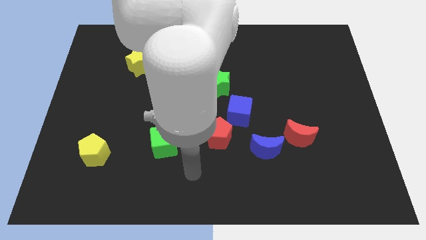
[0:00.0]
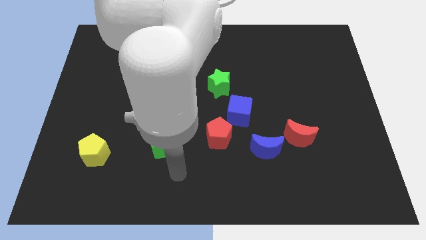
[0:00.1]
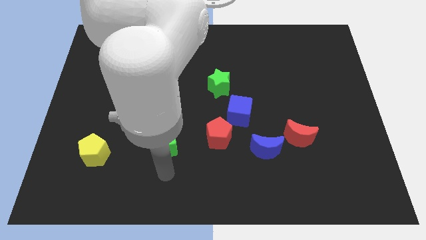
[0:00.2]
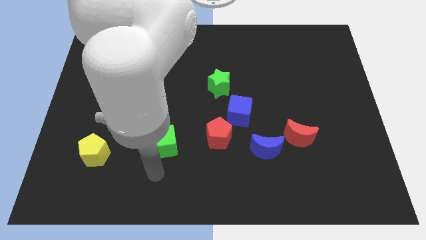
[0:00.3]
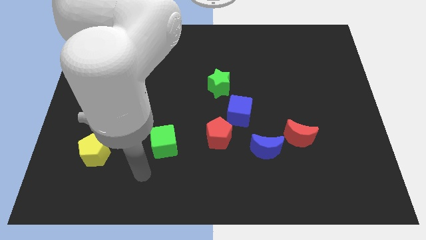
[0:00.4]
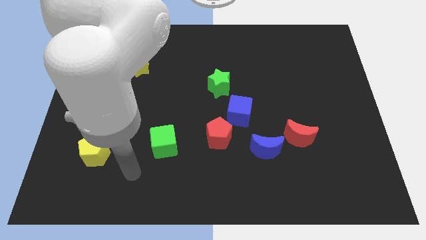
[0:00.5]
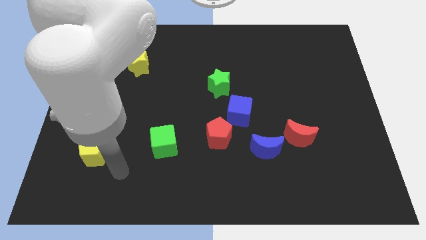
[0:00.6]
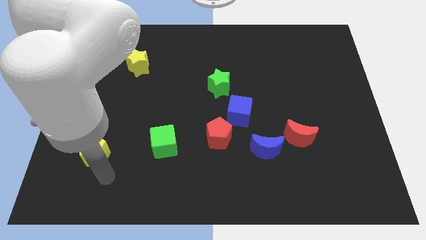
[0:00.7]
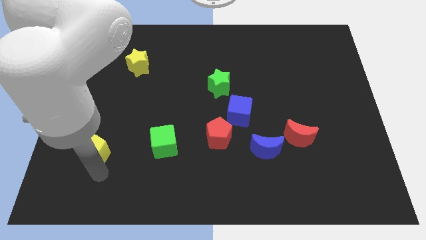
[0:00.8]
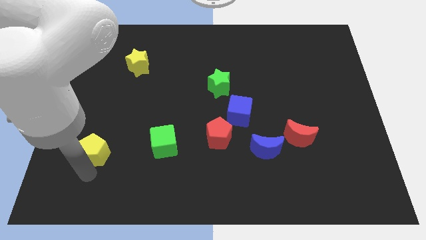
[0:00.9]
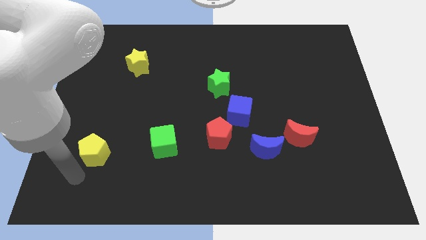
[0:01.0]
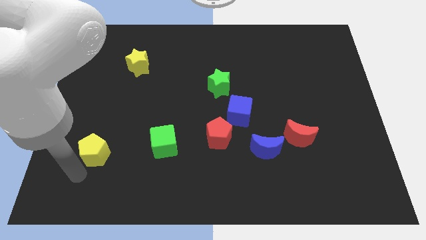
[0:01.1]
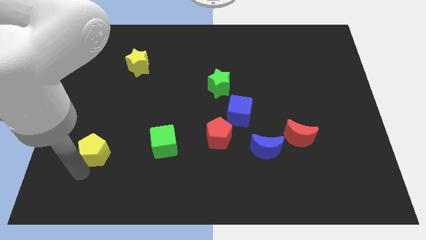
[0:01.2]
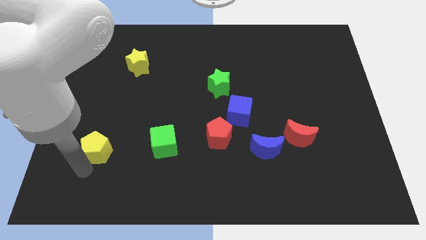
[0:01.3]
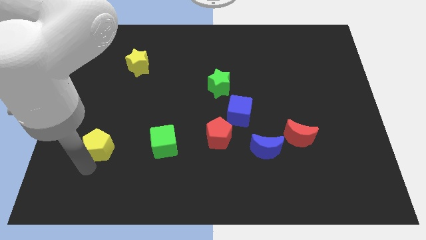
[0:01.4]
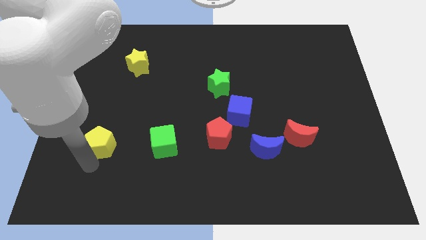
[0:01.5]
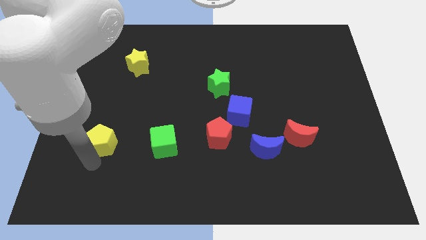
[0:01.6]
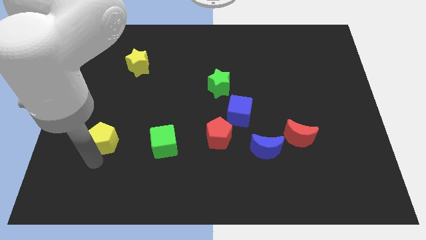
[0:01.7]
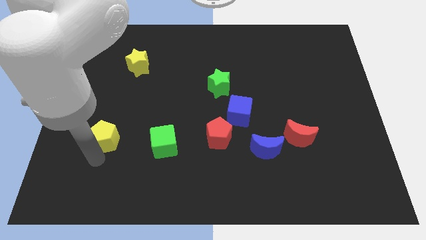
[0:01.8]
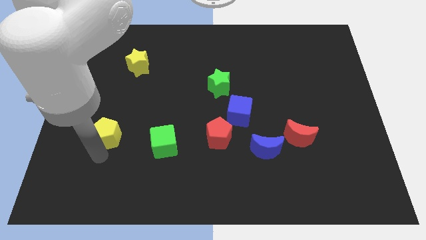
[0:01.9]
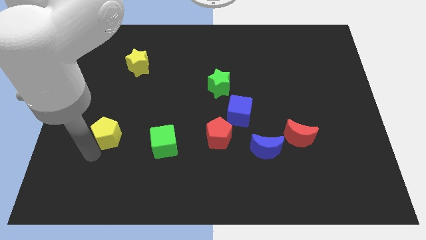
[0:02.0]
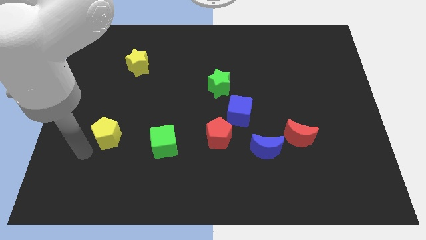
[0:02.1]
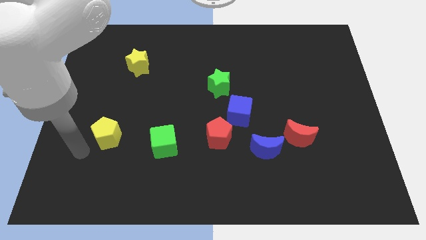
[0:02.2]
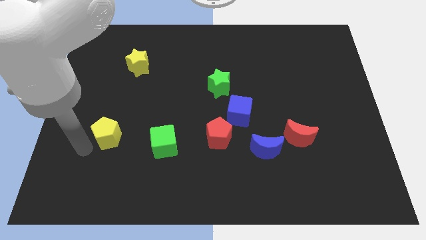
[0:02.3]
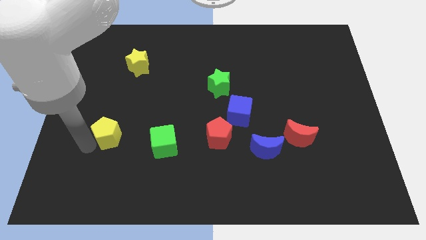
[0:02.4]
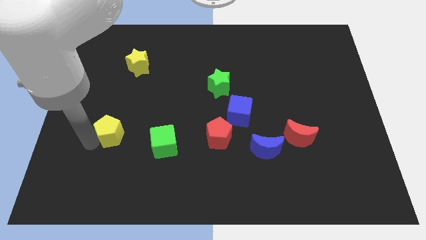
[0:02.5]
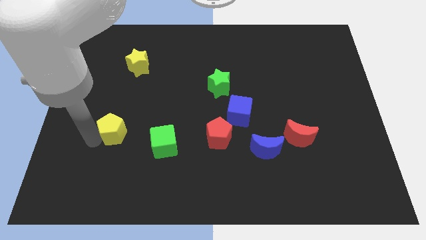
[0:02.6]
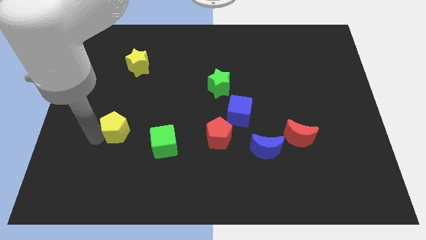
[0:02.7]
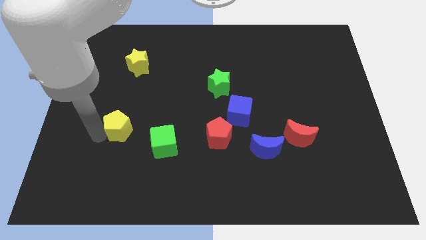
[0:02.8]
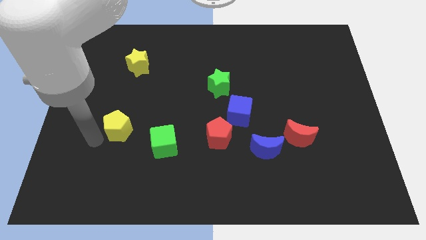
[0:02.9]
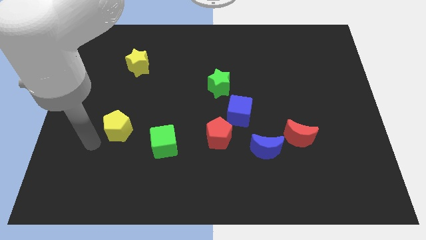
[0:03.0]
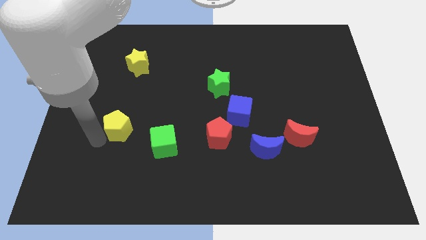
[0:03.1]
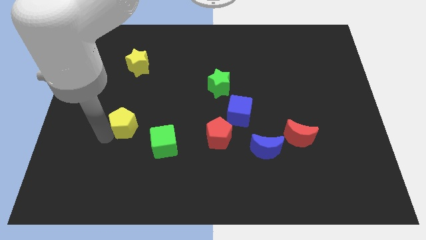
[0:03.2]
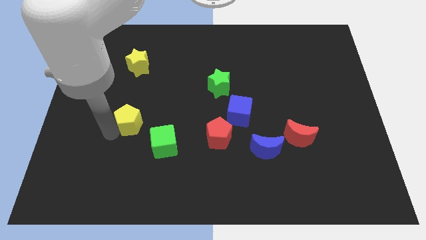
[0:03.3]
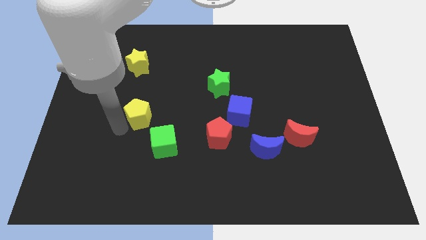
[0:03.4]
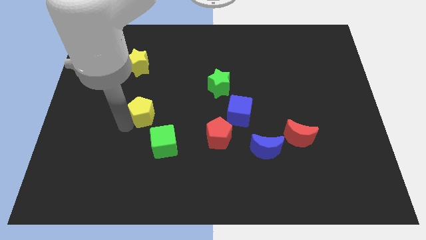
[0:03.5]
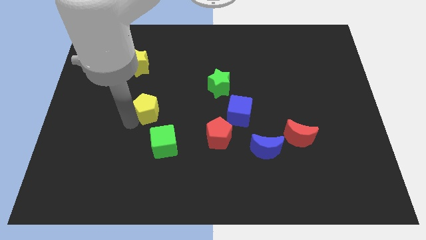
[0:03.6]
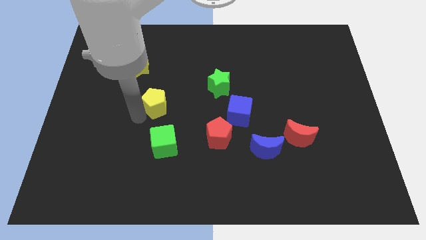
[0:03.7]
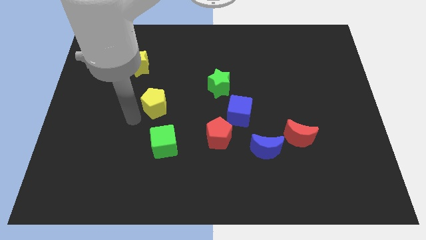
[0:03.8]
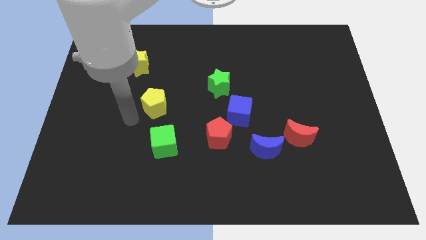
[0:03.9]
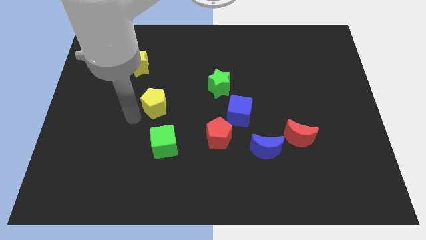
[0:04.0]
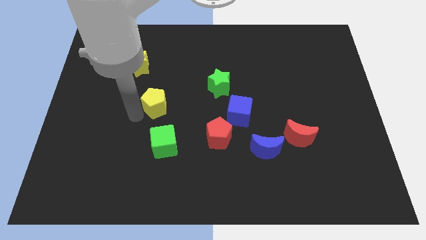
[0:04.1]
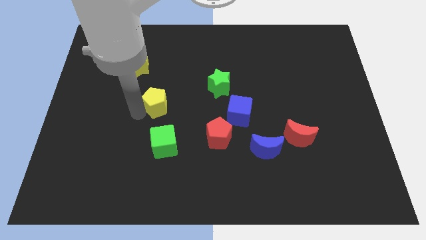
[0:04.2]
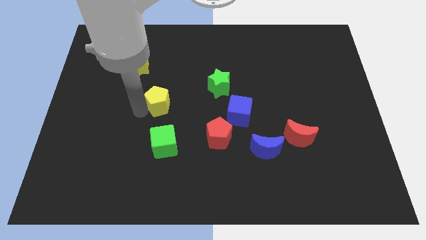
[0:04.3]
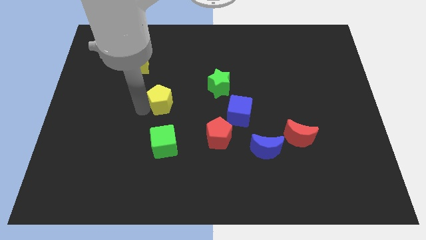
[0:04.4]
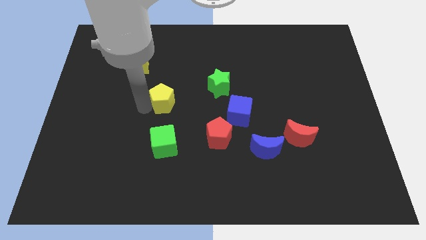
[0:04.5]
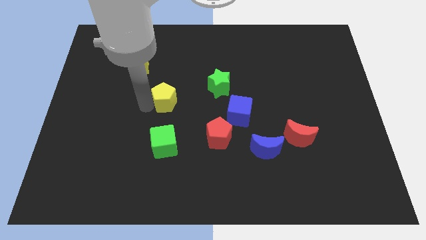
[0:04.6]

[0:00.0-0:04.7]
slide the yellow pentagon up and then right

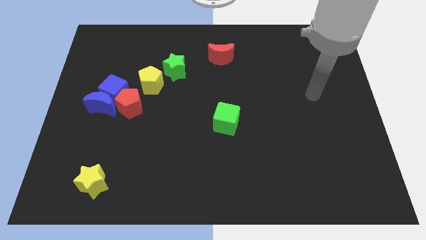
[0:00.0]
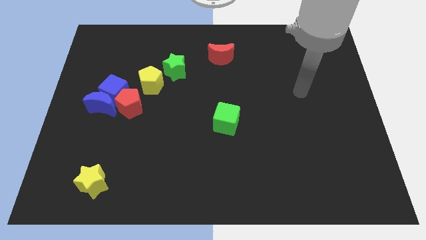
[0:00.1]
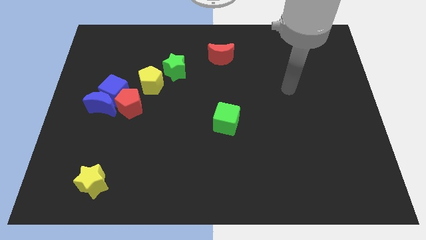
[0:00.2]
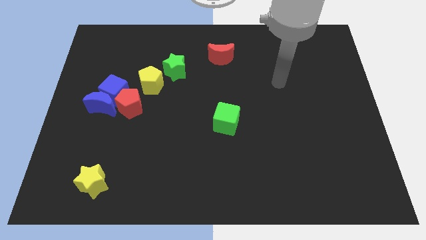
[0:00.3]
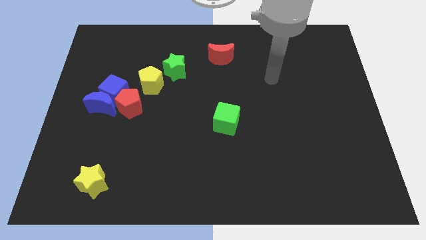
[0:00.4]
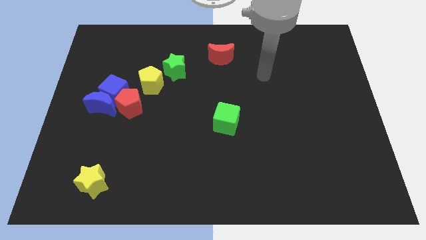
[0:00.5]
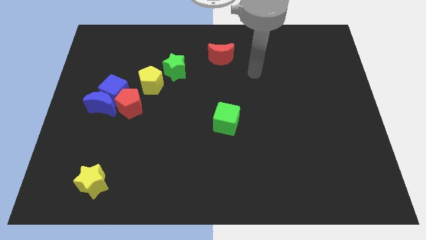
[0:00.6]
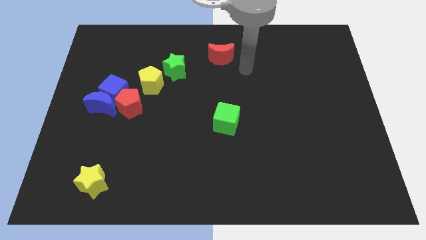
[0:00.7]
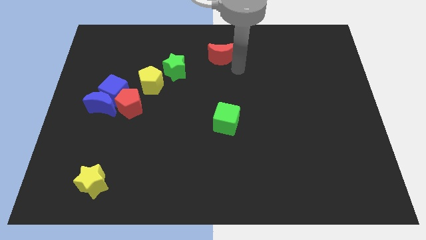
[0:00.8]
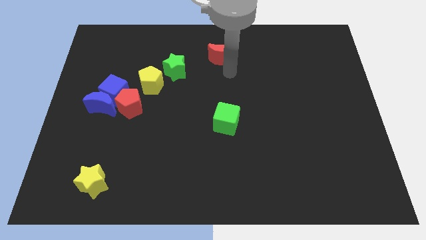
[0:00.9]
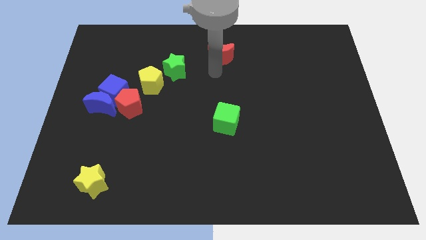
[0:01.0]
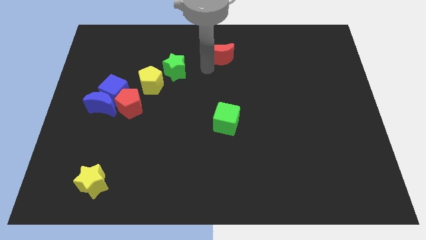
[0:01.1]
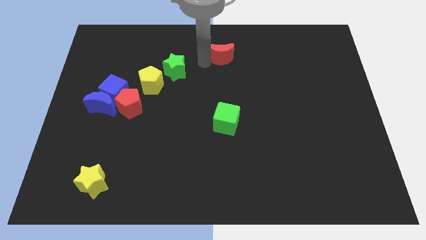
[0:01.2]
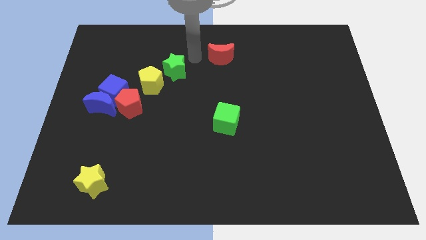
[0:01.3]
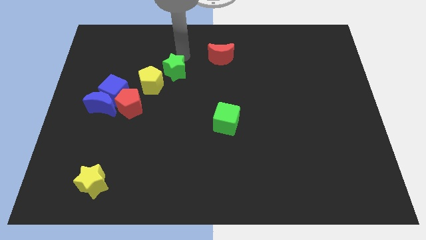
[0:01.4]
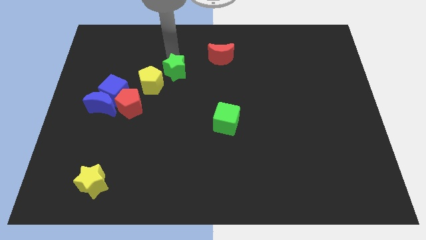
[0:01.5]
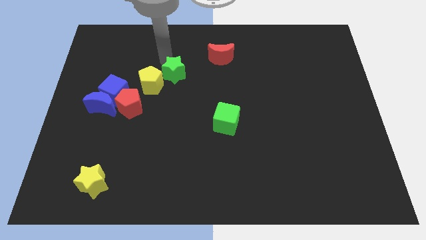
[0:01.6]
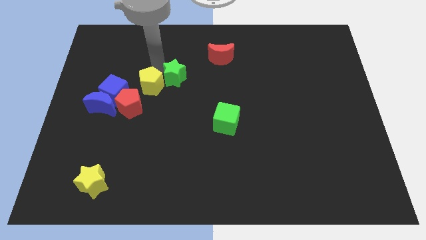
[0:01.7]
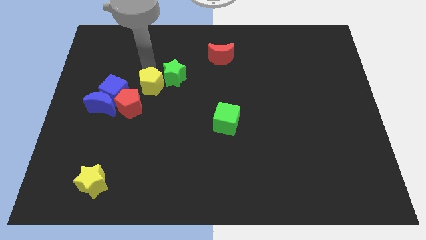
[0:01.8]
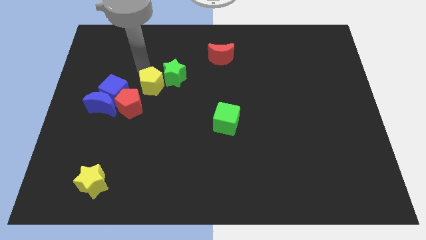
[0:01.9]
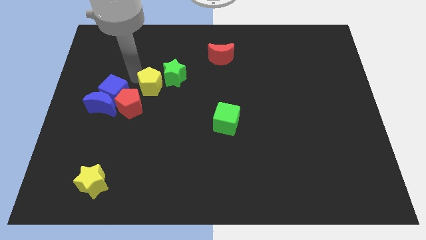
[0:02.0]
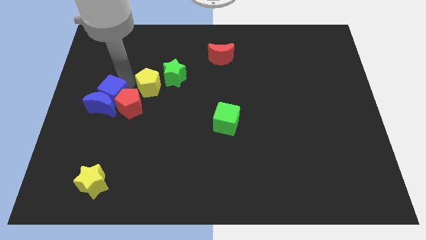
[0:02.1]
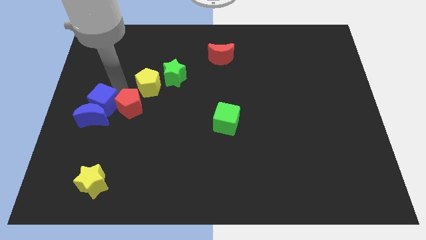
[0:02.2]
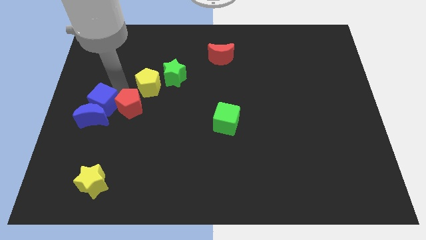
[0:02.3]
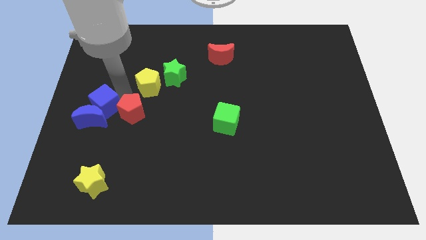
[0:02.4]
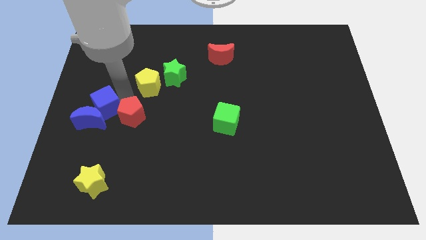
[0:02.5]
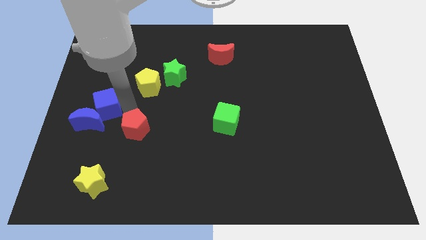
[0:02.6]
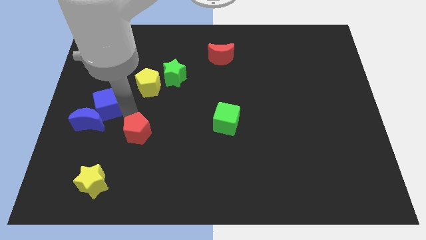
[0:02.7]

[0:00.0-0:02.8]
move the red pentagon a little down and then right

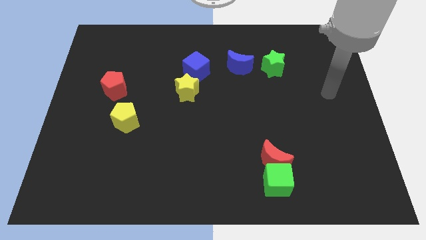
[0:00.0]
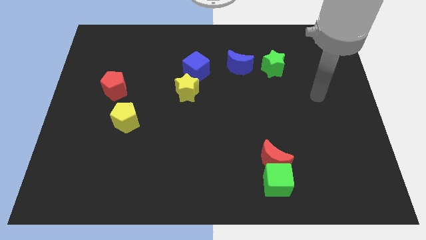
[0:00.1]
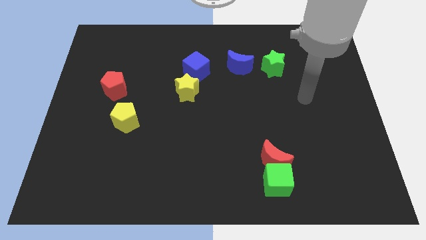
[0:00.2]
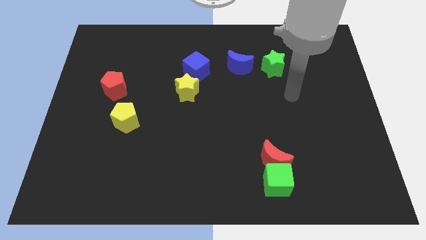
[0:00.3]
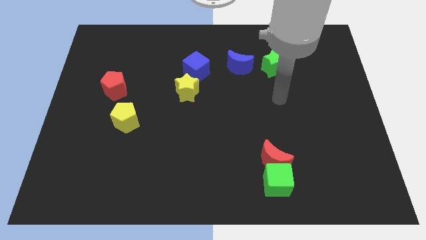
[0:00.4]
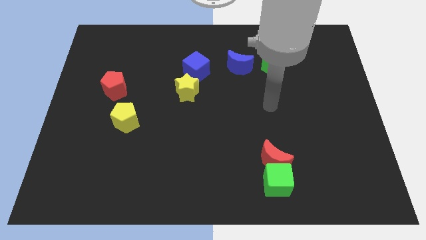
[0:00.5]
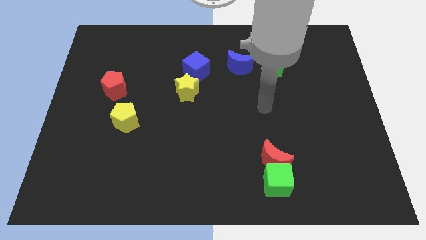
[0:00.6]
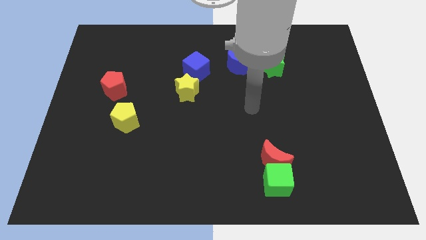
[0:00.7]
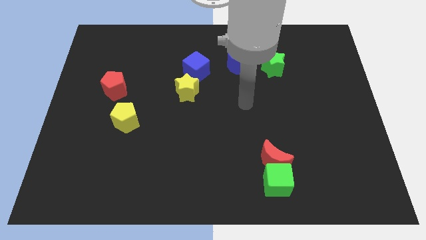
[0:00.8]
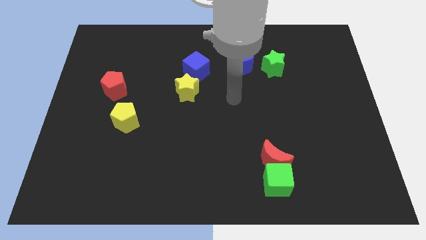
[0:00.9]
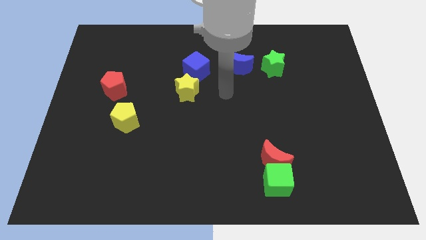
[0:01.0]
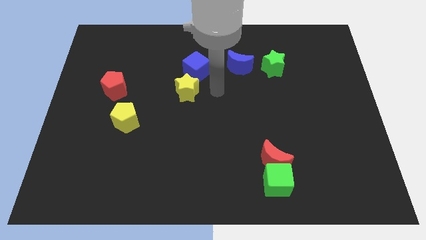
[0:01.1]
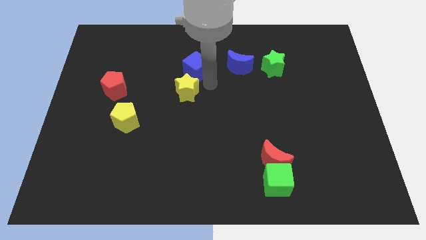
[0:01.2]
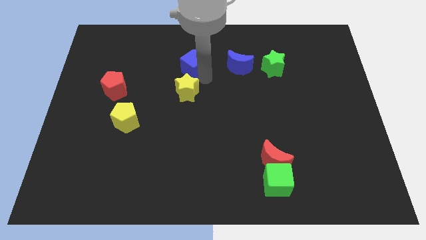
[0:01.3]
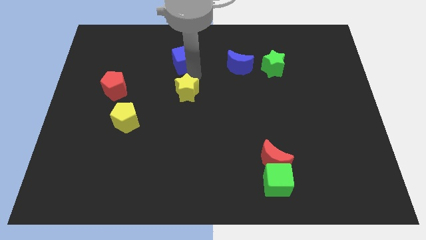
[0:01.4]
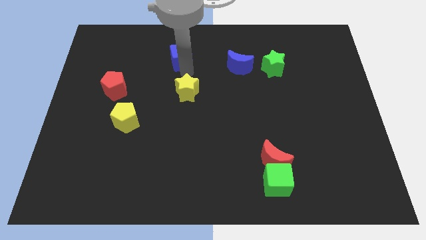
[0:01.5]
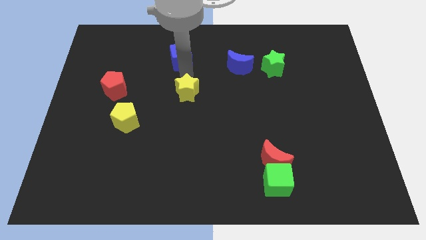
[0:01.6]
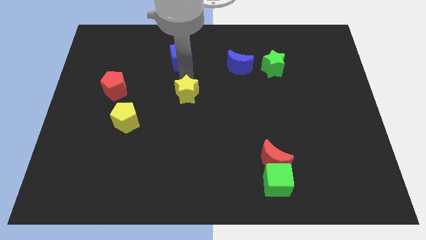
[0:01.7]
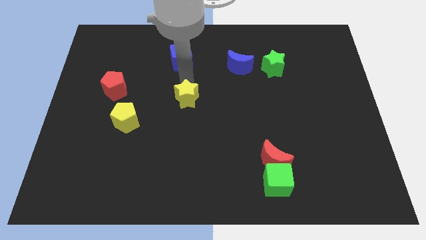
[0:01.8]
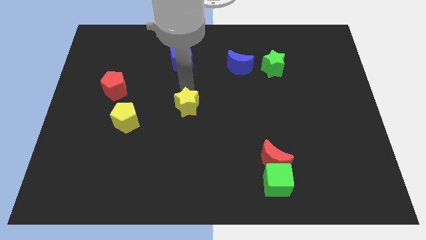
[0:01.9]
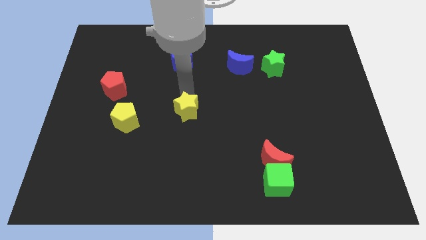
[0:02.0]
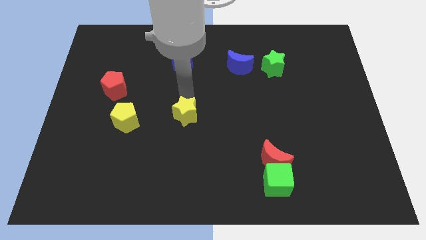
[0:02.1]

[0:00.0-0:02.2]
slightly slide the yellow star down
